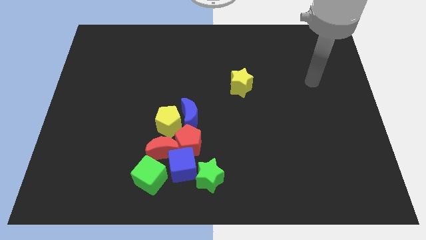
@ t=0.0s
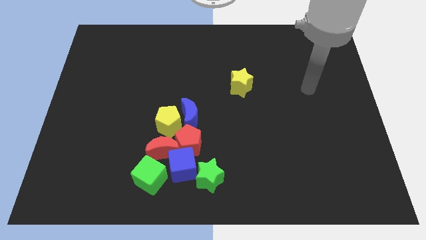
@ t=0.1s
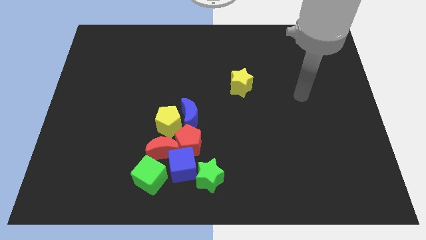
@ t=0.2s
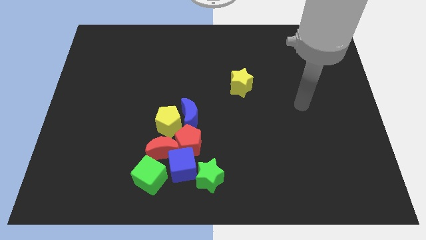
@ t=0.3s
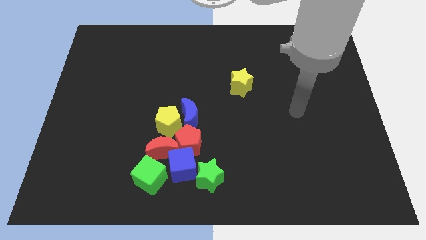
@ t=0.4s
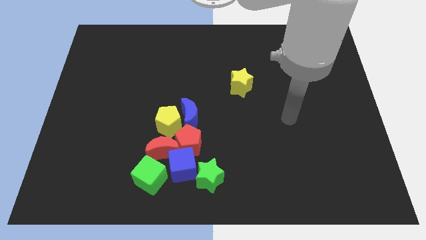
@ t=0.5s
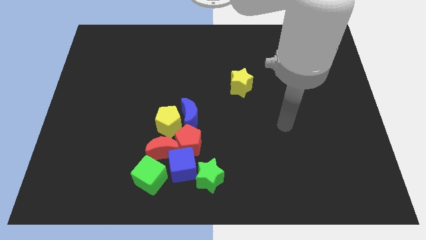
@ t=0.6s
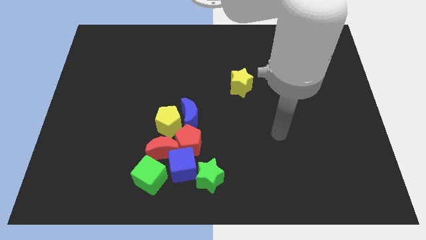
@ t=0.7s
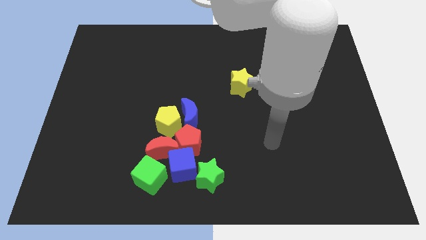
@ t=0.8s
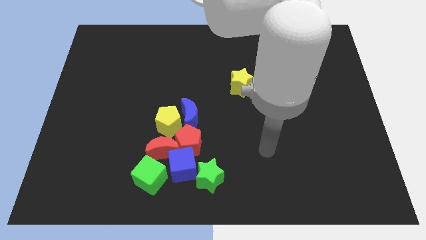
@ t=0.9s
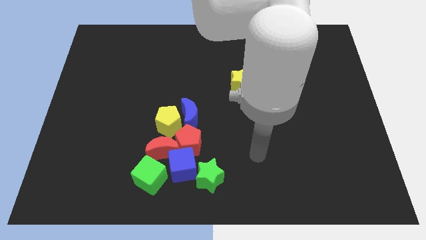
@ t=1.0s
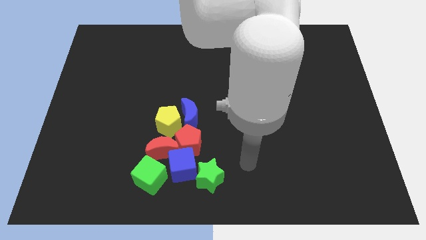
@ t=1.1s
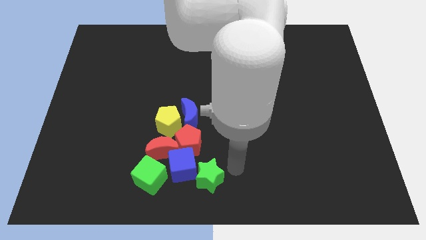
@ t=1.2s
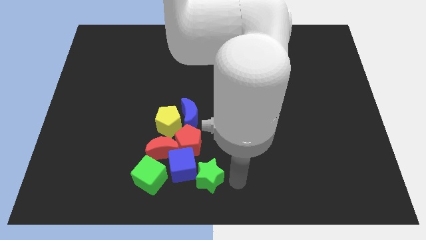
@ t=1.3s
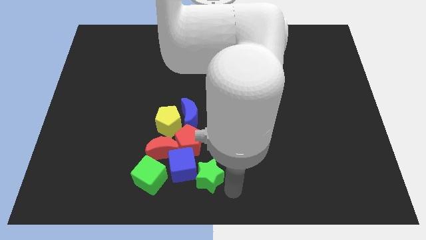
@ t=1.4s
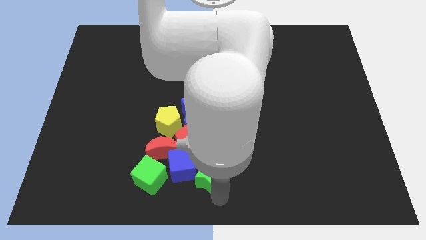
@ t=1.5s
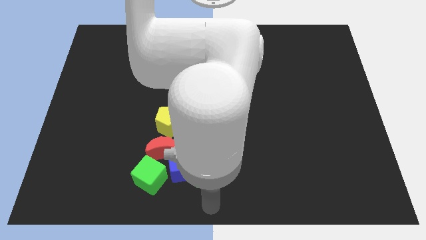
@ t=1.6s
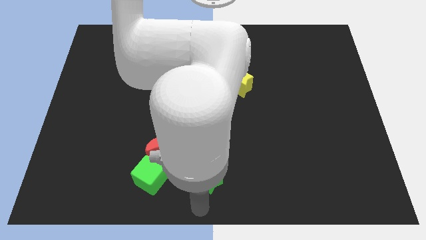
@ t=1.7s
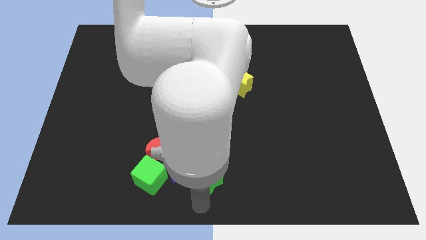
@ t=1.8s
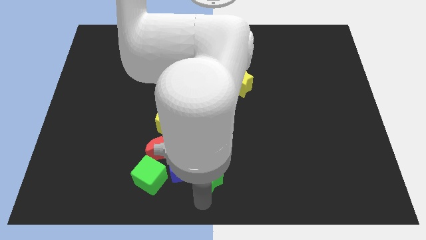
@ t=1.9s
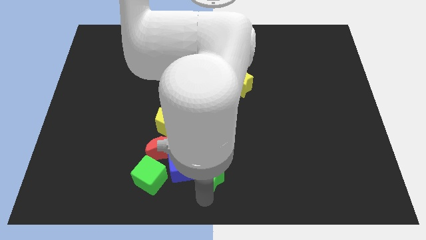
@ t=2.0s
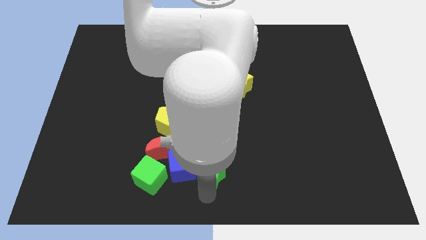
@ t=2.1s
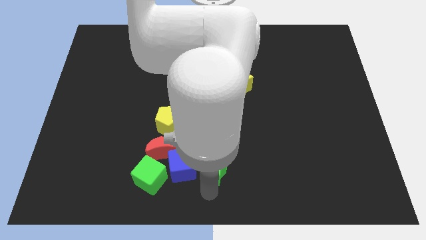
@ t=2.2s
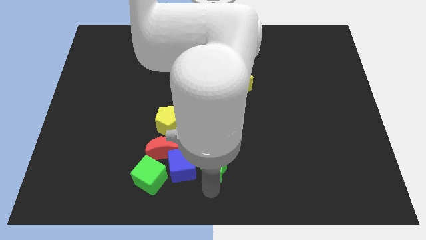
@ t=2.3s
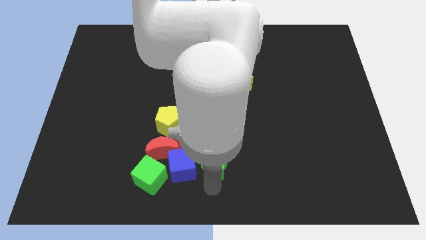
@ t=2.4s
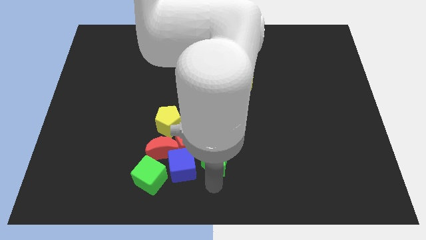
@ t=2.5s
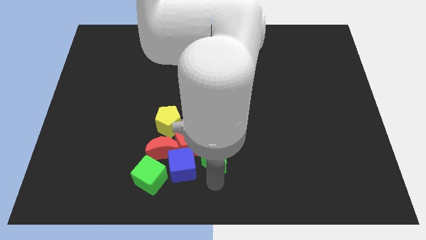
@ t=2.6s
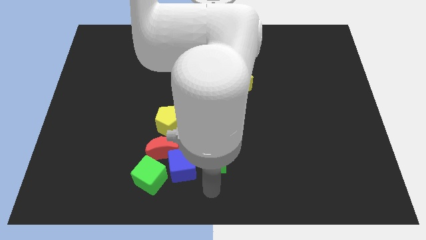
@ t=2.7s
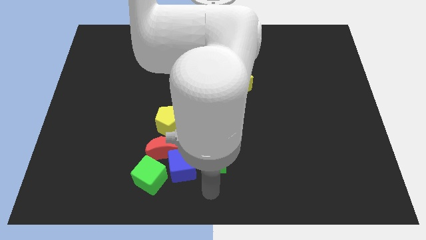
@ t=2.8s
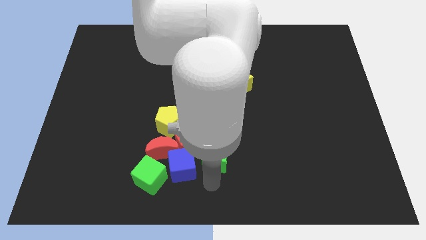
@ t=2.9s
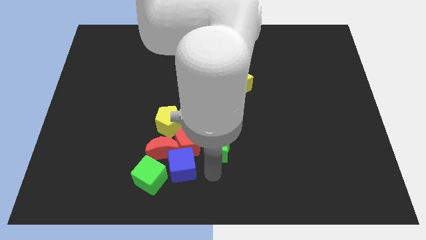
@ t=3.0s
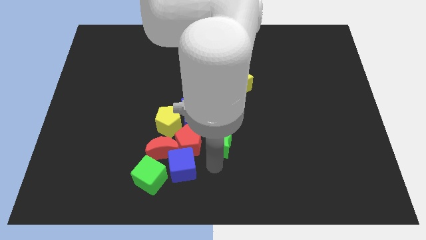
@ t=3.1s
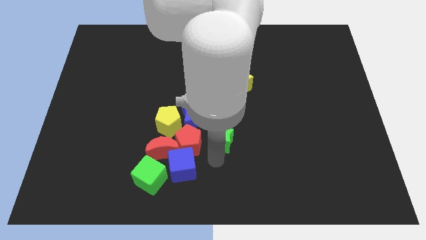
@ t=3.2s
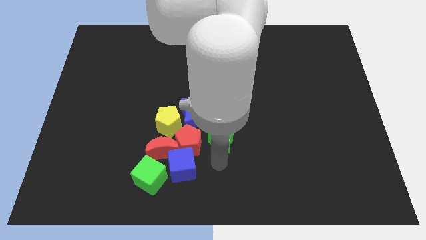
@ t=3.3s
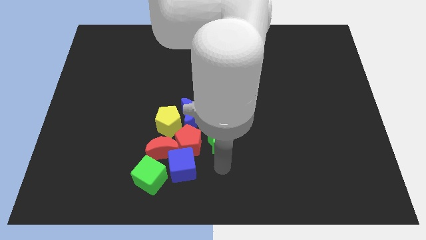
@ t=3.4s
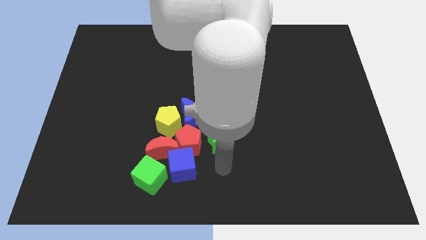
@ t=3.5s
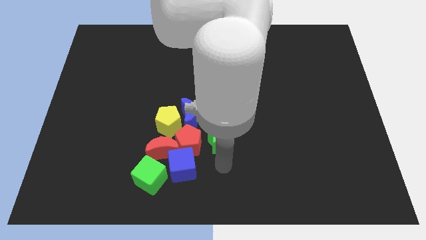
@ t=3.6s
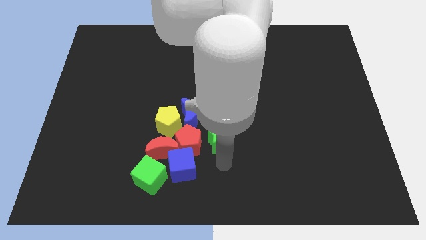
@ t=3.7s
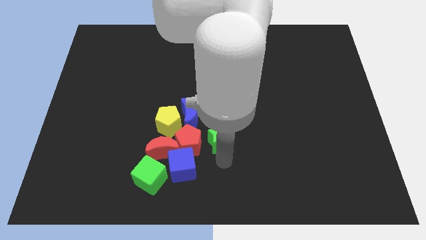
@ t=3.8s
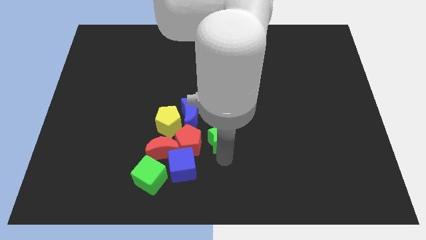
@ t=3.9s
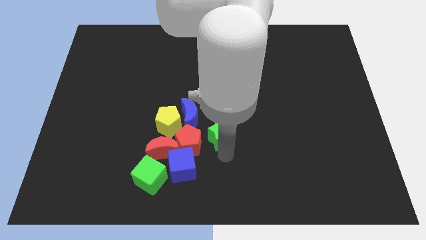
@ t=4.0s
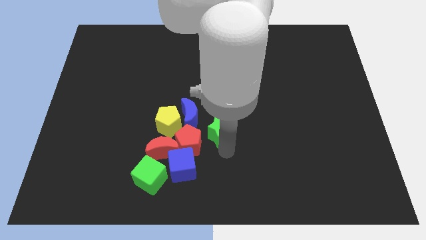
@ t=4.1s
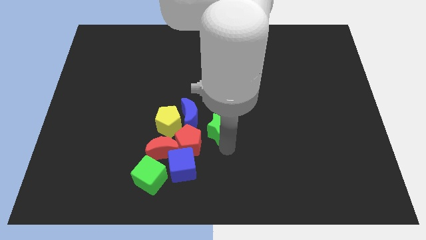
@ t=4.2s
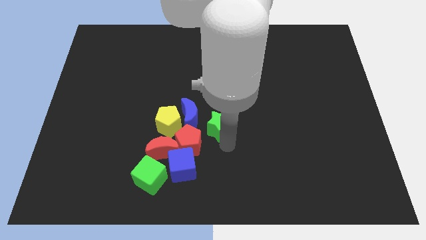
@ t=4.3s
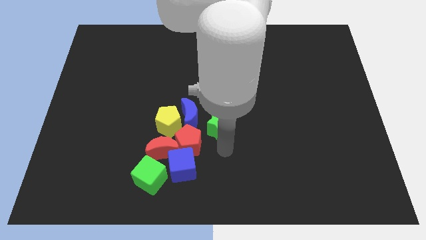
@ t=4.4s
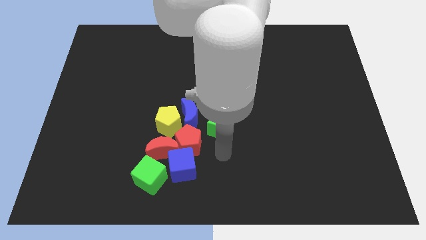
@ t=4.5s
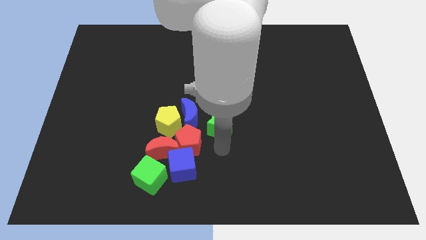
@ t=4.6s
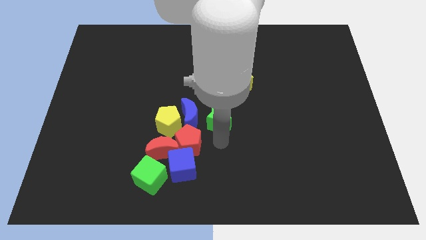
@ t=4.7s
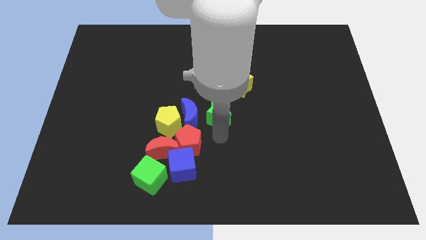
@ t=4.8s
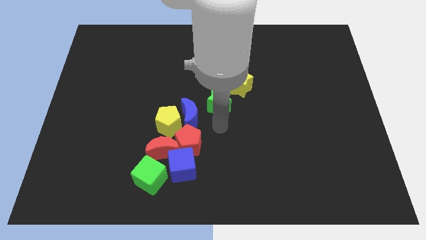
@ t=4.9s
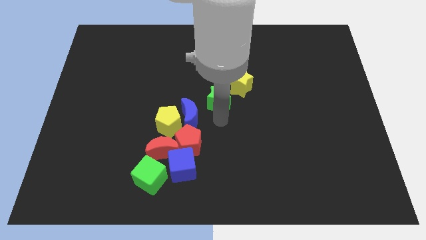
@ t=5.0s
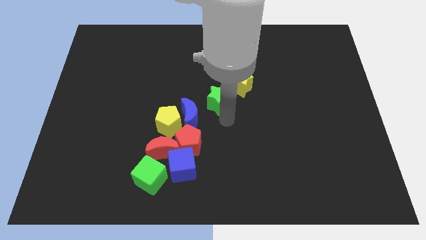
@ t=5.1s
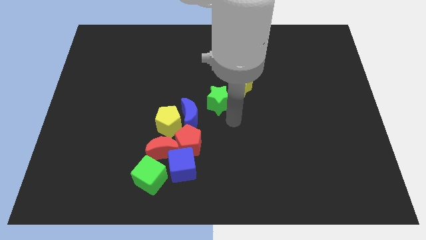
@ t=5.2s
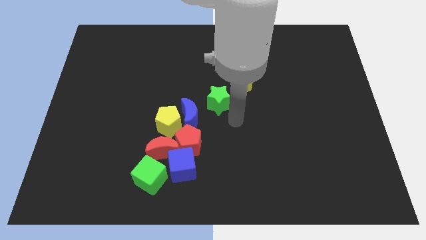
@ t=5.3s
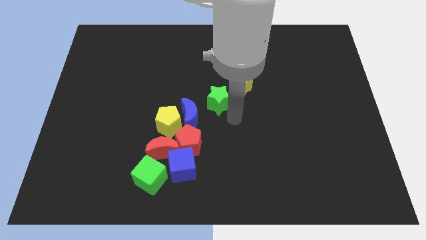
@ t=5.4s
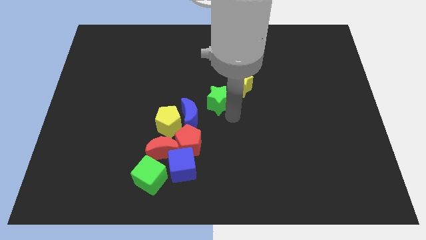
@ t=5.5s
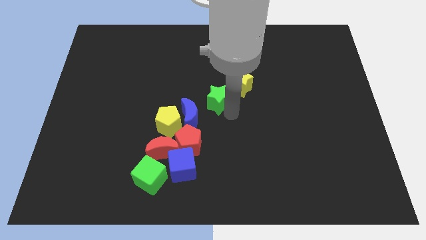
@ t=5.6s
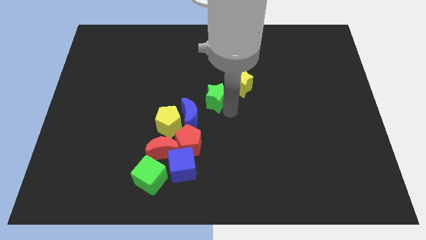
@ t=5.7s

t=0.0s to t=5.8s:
put the green star left of the yellow star

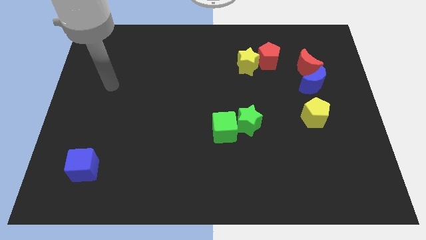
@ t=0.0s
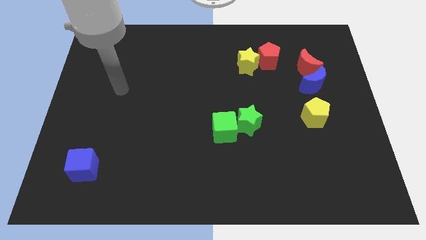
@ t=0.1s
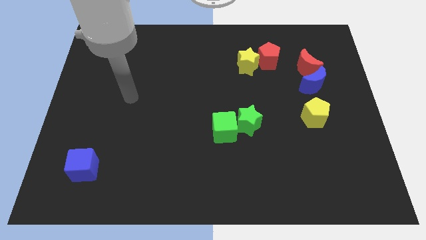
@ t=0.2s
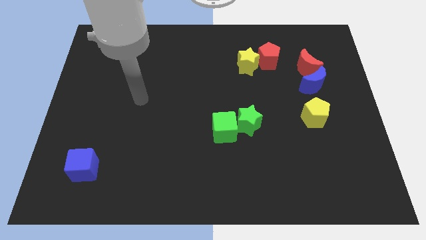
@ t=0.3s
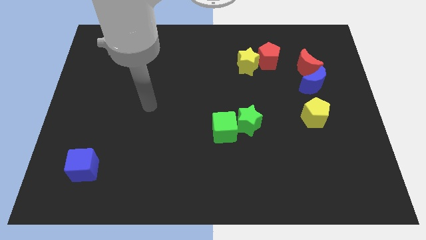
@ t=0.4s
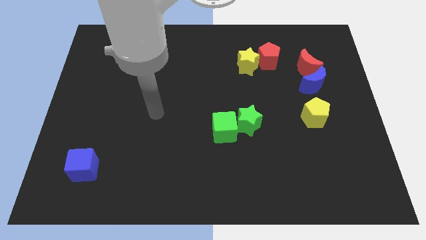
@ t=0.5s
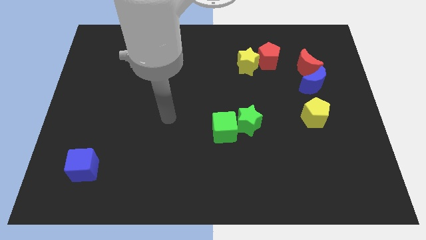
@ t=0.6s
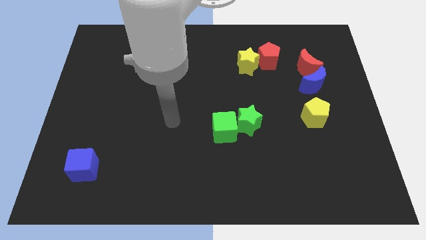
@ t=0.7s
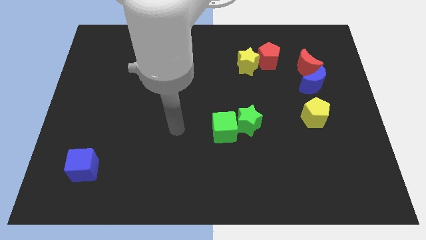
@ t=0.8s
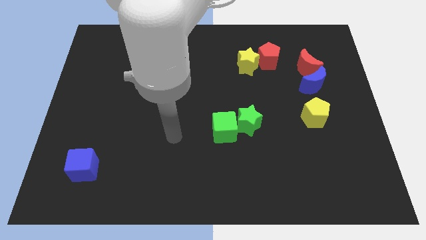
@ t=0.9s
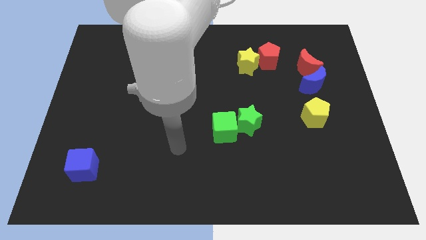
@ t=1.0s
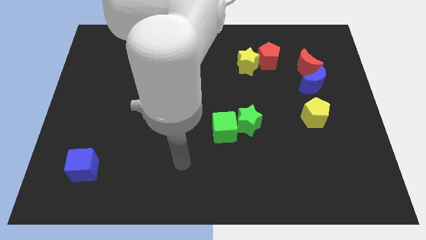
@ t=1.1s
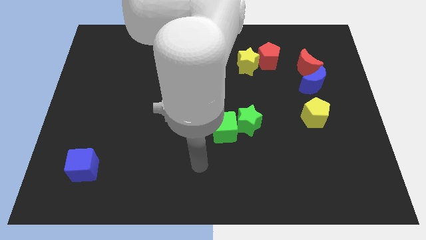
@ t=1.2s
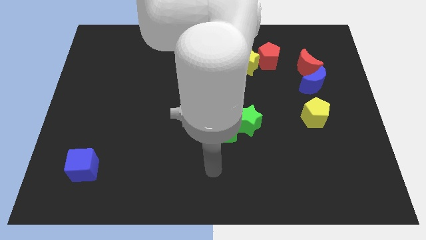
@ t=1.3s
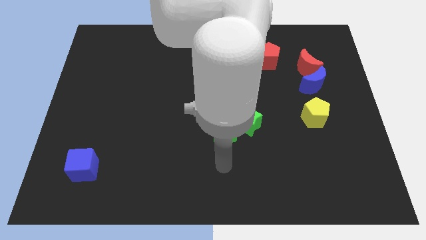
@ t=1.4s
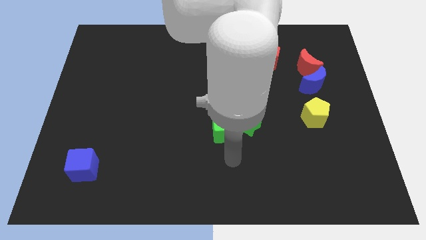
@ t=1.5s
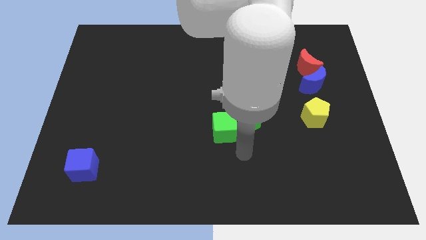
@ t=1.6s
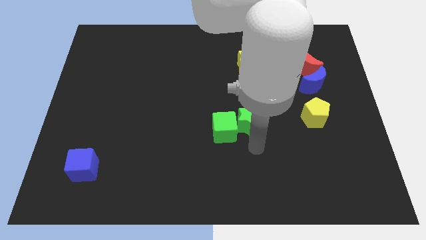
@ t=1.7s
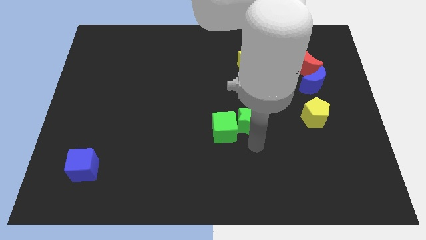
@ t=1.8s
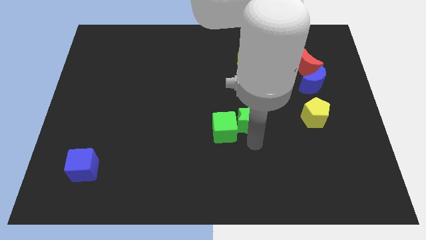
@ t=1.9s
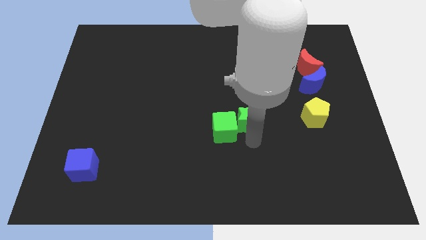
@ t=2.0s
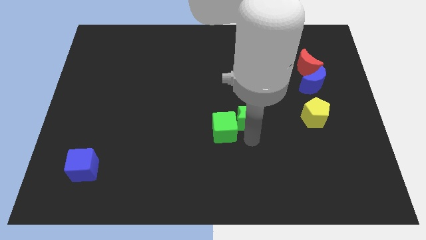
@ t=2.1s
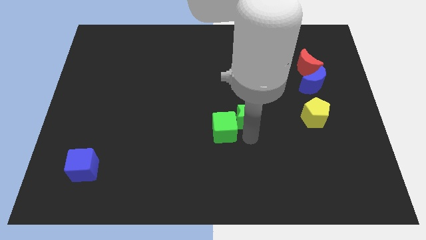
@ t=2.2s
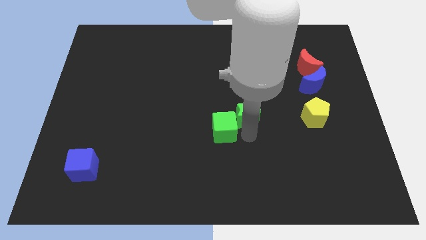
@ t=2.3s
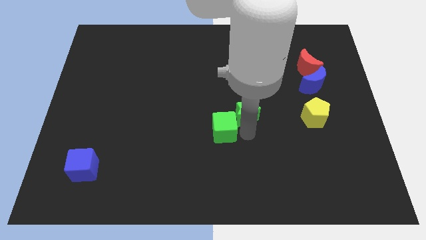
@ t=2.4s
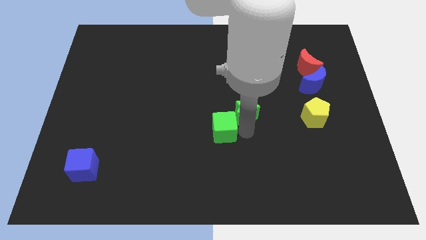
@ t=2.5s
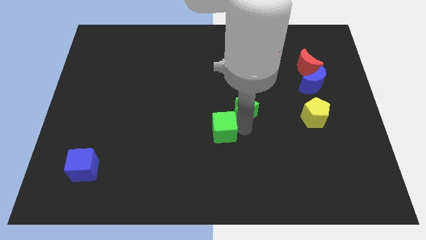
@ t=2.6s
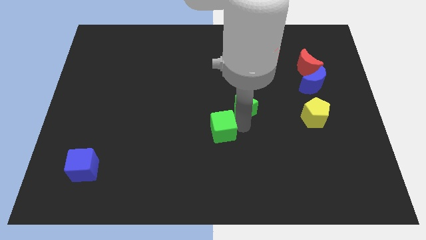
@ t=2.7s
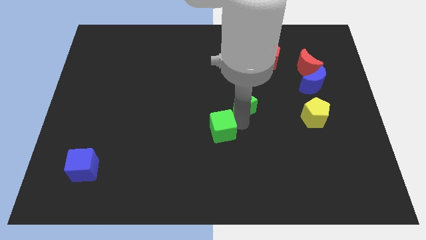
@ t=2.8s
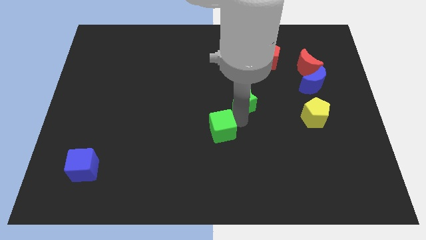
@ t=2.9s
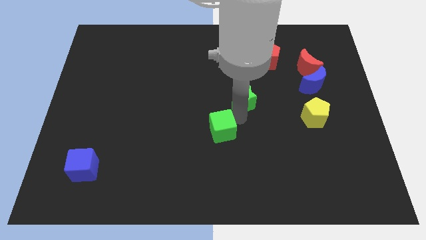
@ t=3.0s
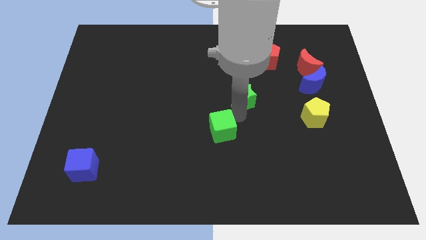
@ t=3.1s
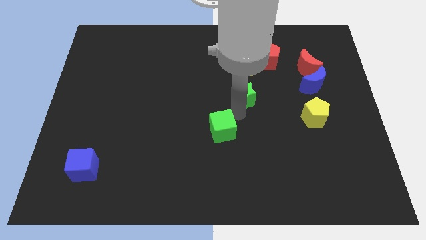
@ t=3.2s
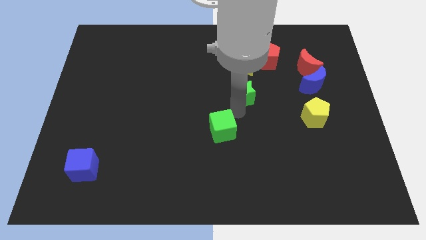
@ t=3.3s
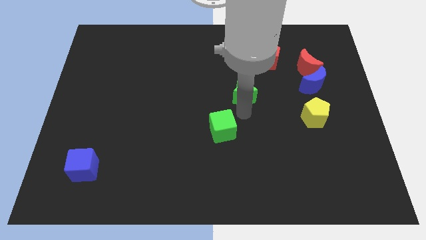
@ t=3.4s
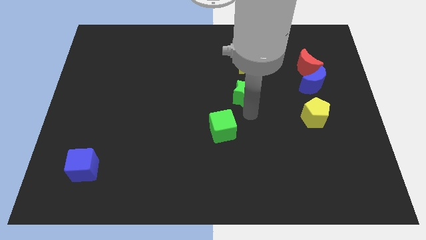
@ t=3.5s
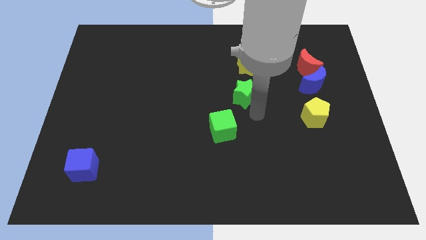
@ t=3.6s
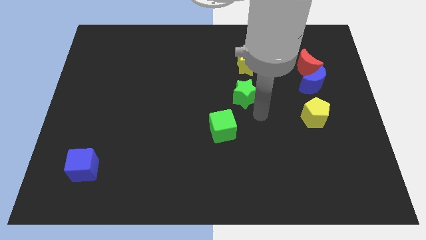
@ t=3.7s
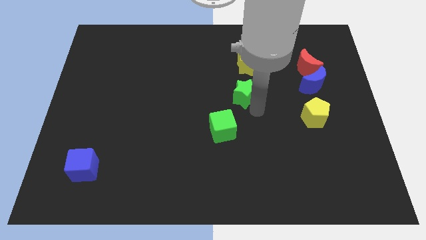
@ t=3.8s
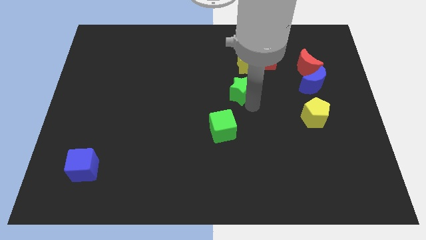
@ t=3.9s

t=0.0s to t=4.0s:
move the green star to the bottom left side of the yellow star
